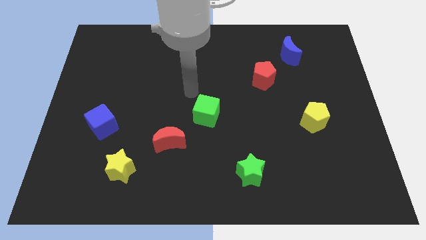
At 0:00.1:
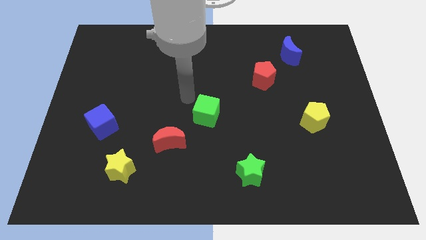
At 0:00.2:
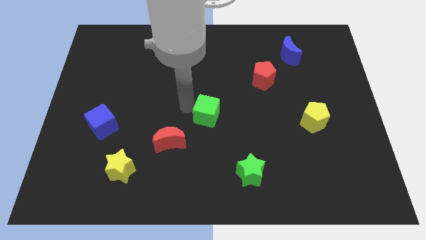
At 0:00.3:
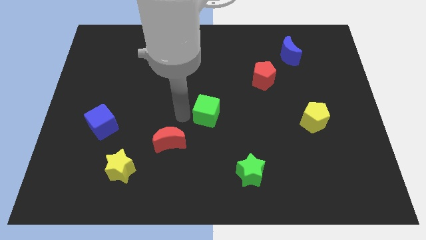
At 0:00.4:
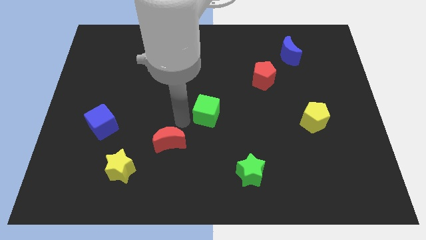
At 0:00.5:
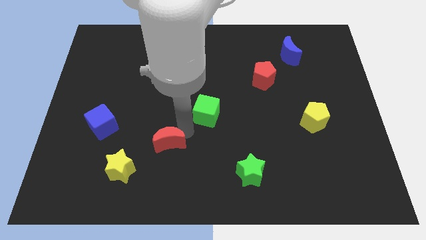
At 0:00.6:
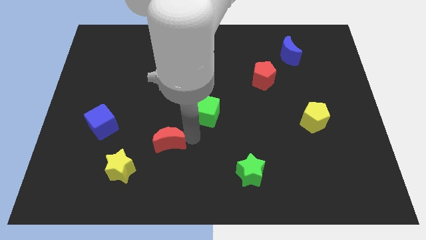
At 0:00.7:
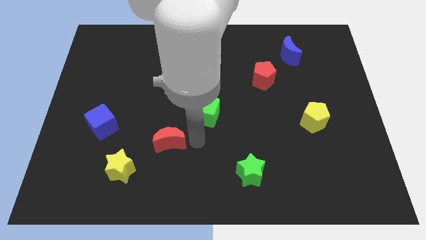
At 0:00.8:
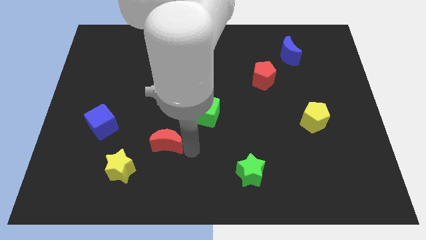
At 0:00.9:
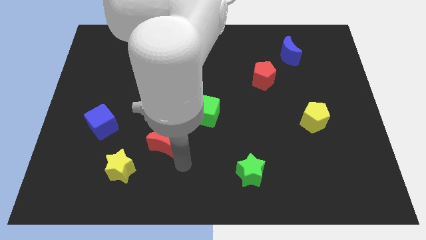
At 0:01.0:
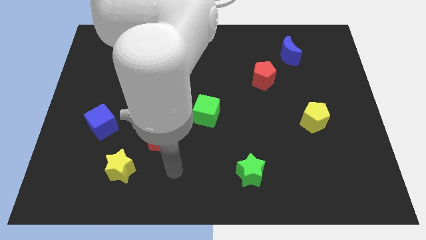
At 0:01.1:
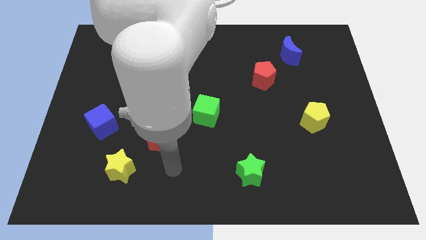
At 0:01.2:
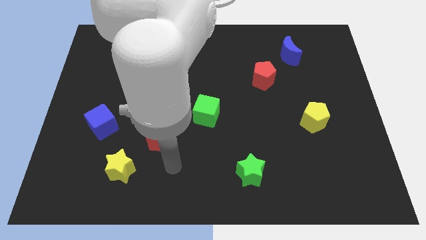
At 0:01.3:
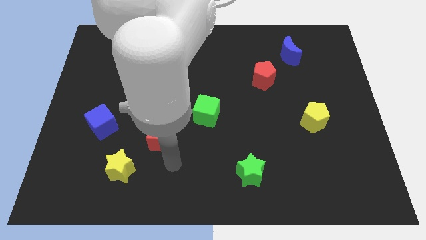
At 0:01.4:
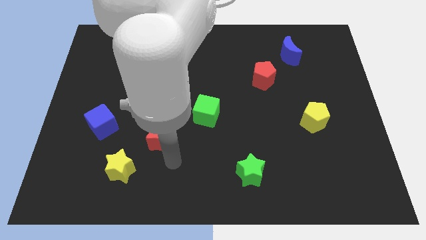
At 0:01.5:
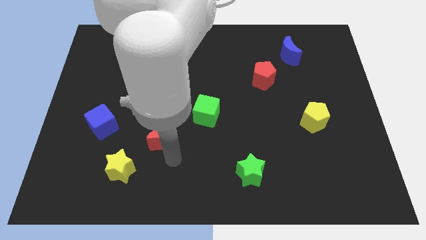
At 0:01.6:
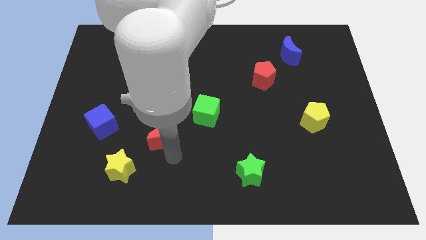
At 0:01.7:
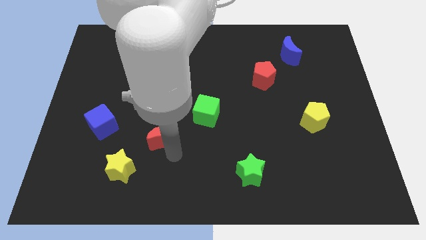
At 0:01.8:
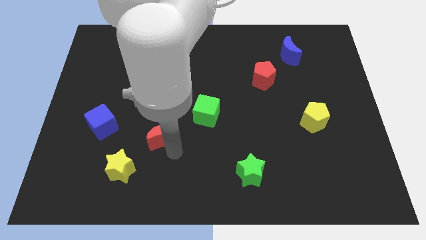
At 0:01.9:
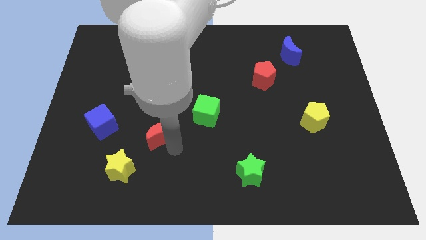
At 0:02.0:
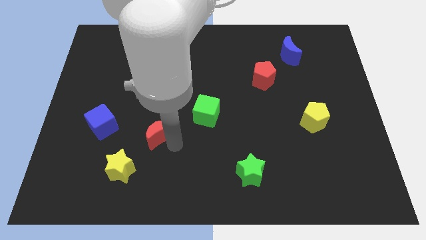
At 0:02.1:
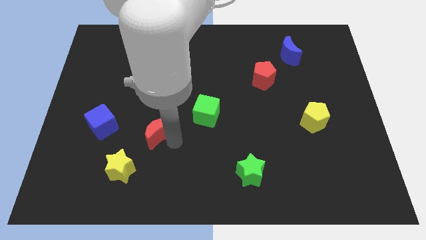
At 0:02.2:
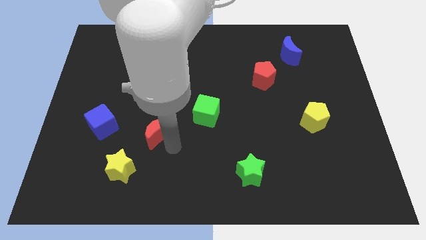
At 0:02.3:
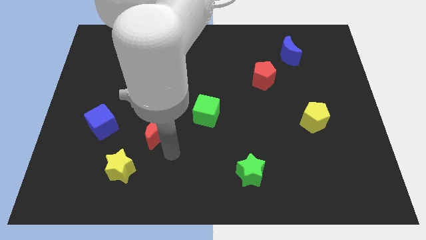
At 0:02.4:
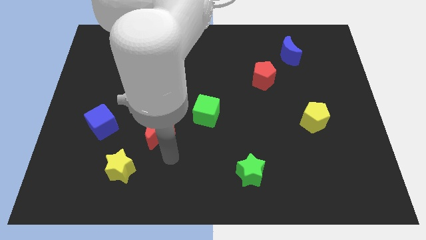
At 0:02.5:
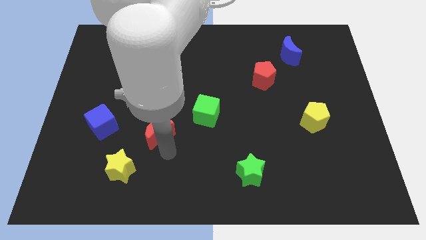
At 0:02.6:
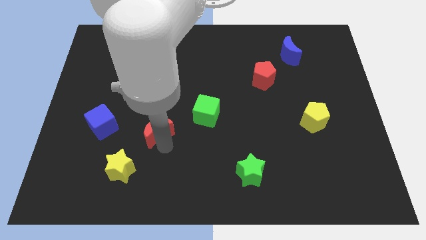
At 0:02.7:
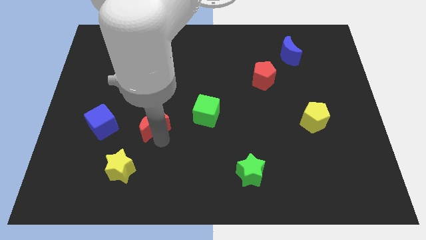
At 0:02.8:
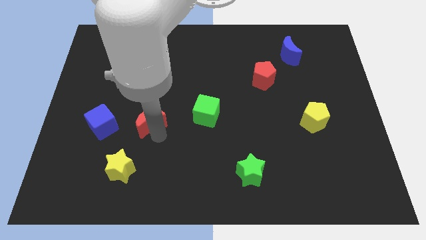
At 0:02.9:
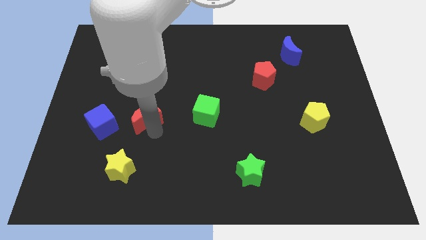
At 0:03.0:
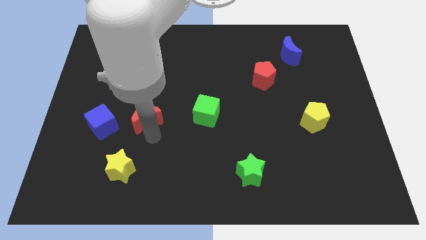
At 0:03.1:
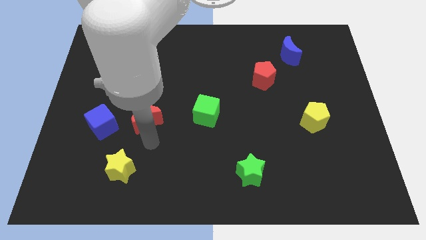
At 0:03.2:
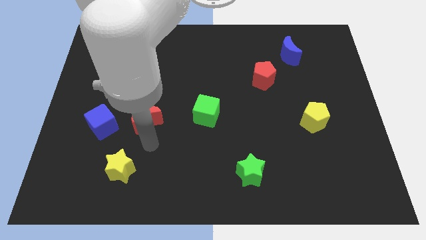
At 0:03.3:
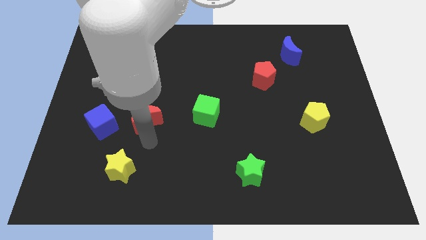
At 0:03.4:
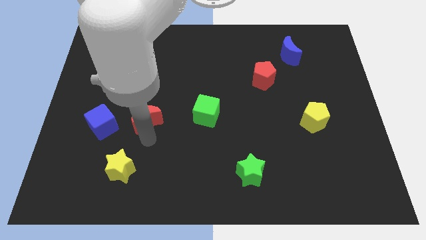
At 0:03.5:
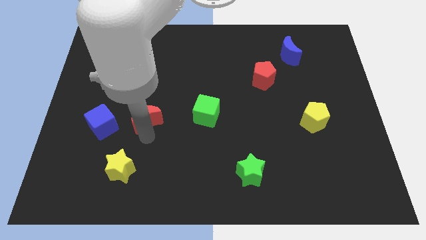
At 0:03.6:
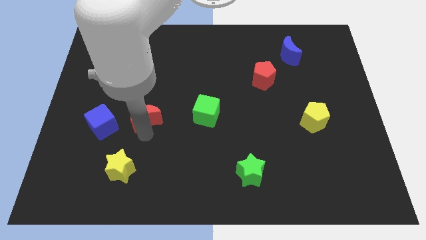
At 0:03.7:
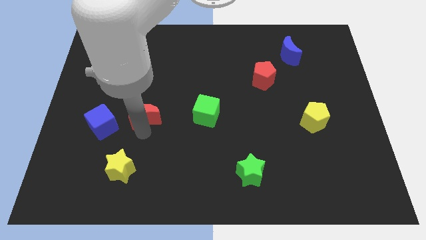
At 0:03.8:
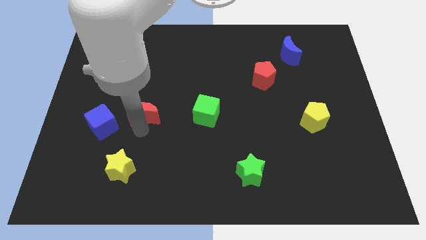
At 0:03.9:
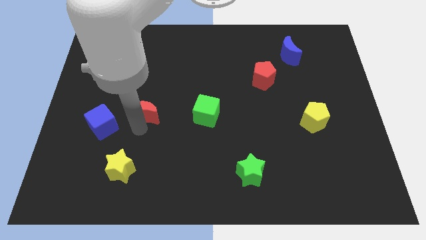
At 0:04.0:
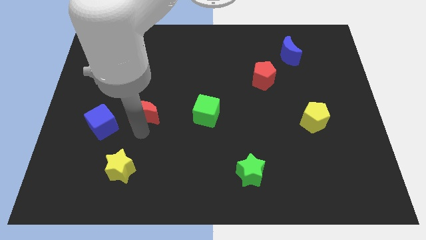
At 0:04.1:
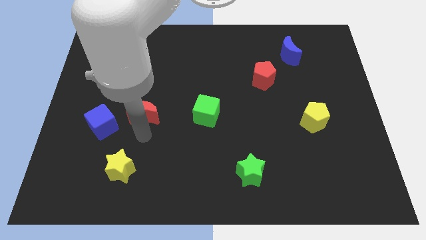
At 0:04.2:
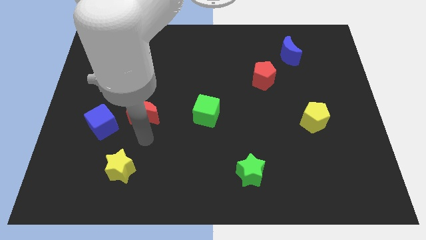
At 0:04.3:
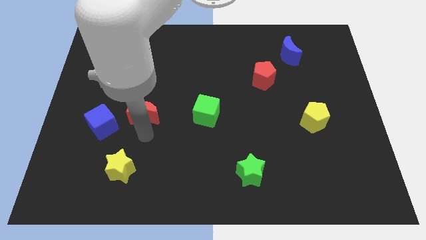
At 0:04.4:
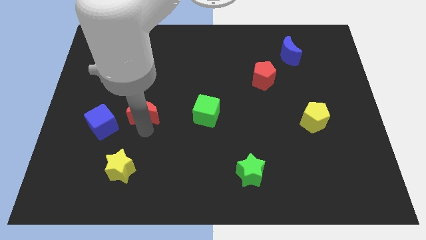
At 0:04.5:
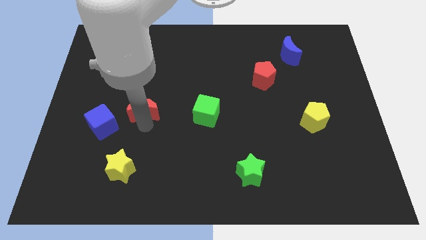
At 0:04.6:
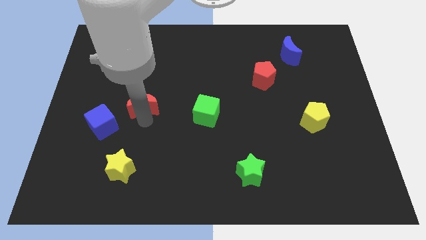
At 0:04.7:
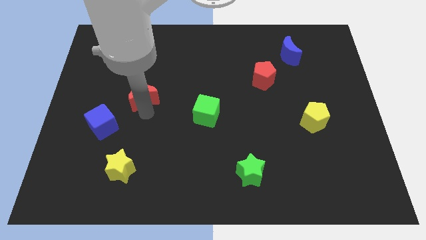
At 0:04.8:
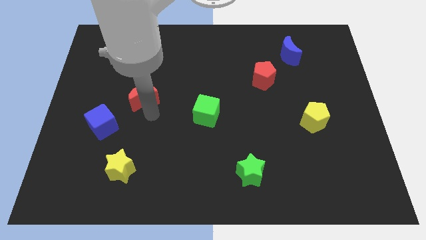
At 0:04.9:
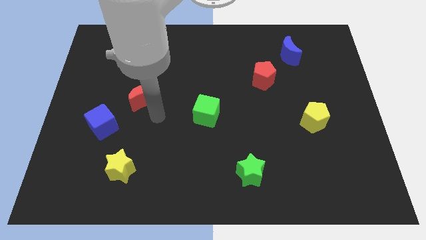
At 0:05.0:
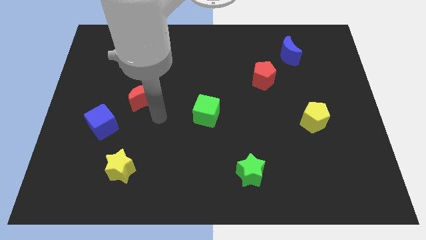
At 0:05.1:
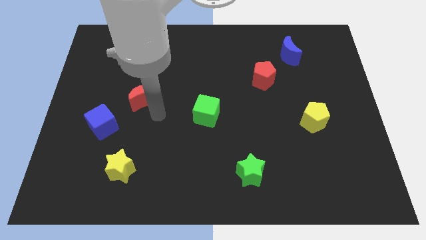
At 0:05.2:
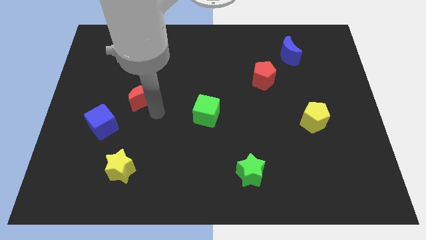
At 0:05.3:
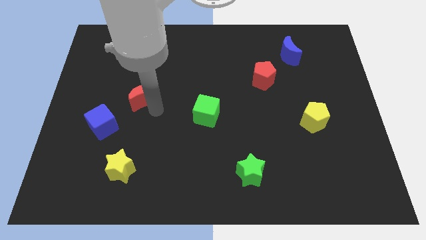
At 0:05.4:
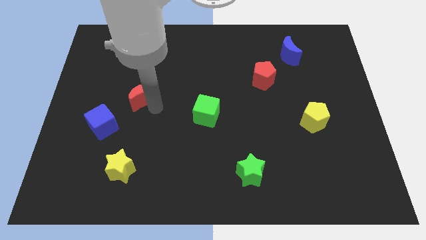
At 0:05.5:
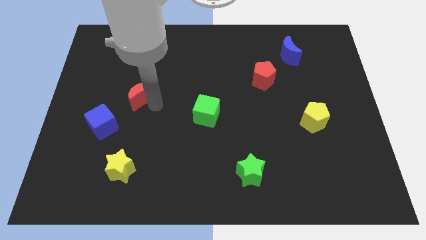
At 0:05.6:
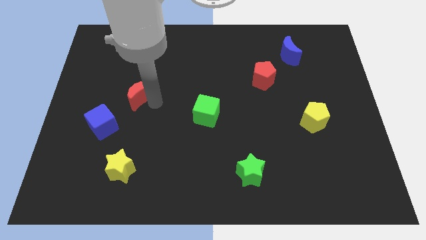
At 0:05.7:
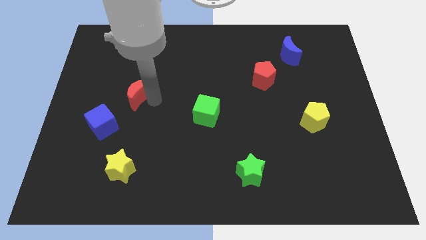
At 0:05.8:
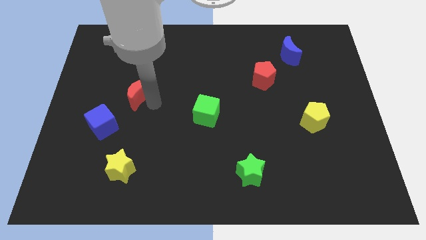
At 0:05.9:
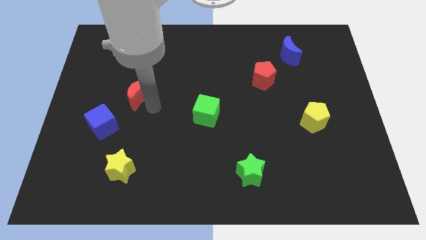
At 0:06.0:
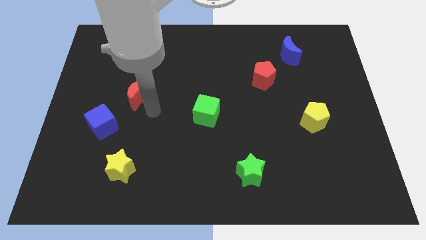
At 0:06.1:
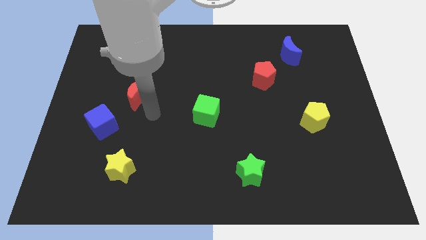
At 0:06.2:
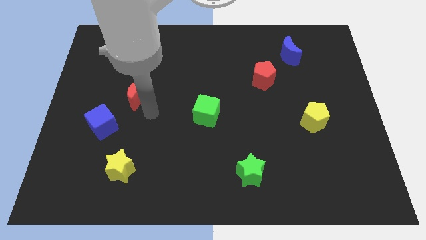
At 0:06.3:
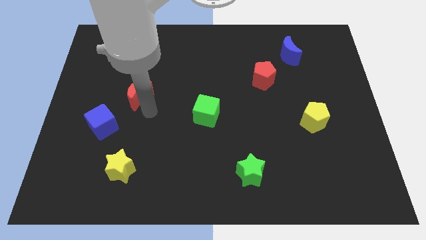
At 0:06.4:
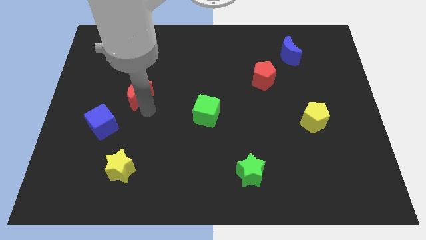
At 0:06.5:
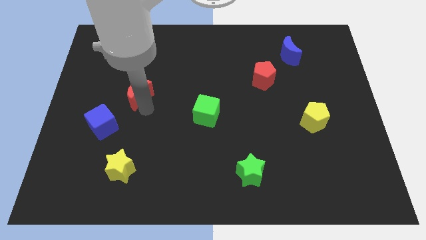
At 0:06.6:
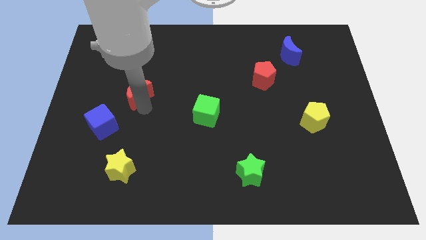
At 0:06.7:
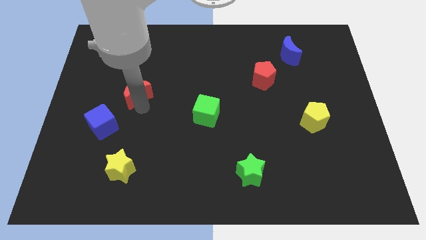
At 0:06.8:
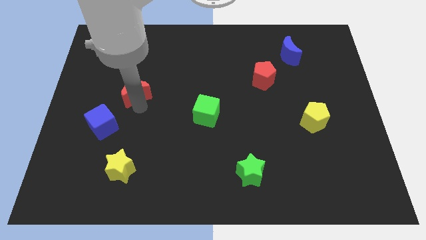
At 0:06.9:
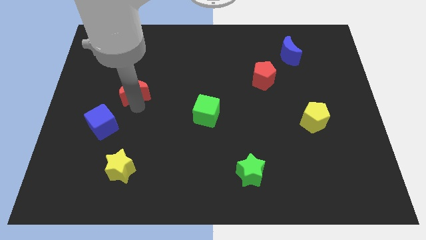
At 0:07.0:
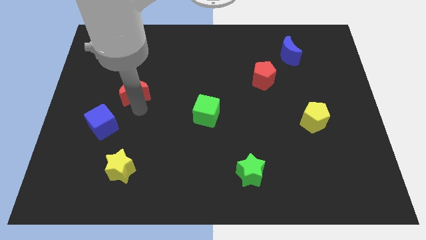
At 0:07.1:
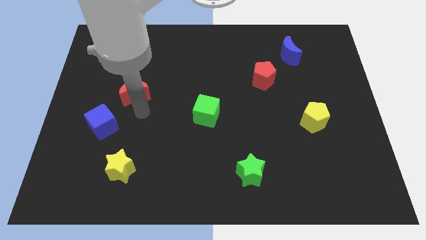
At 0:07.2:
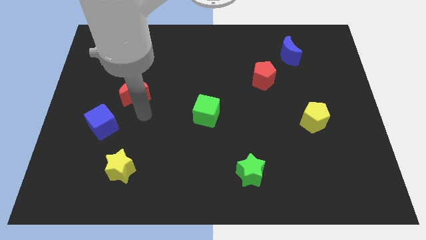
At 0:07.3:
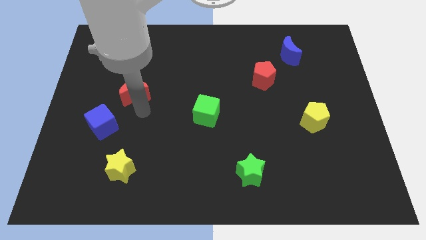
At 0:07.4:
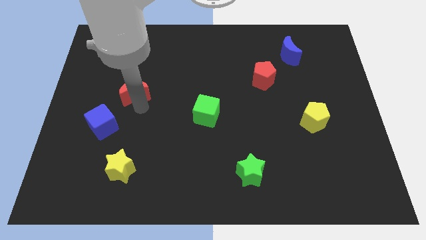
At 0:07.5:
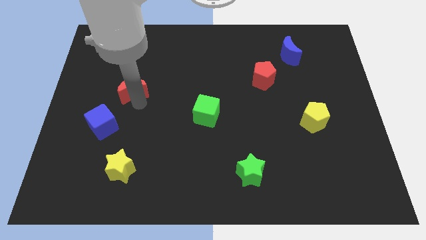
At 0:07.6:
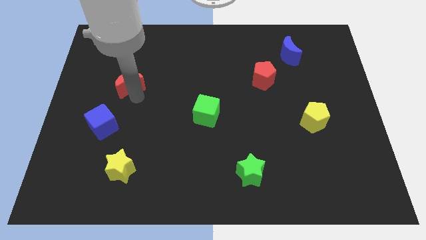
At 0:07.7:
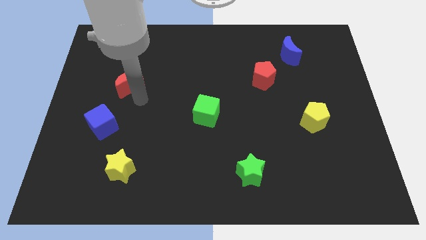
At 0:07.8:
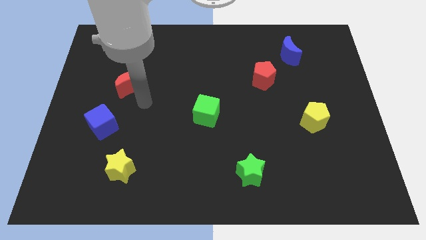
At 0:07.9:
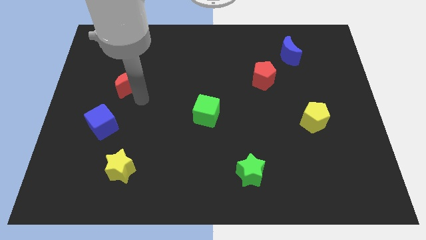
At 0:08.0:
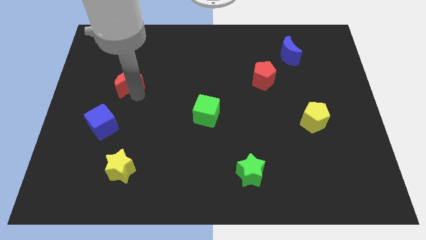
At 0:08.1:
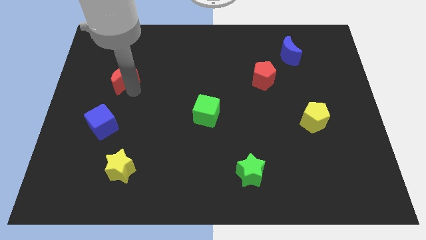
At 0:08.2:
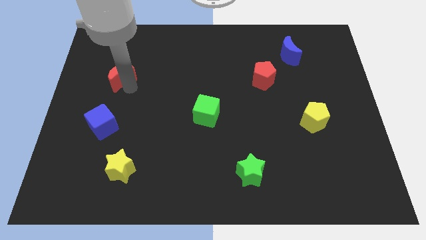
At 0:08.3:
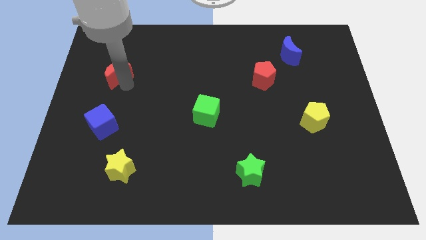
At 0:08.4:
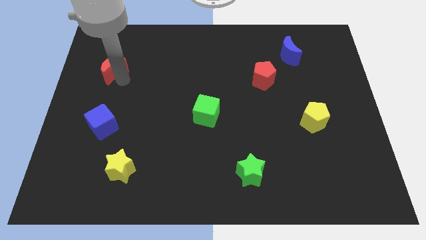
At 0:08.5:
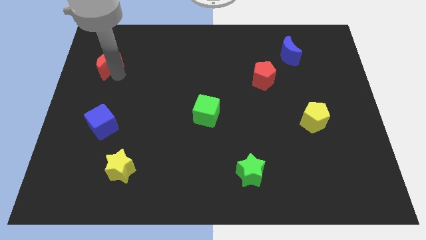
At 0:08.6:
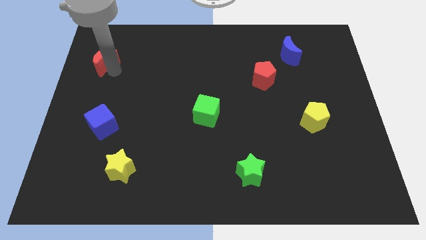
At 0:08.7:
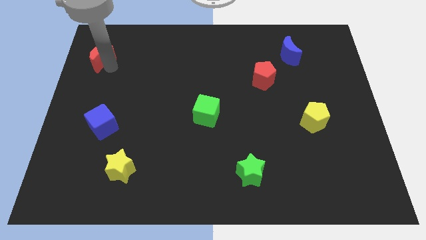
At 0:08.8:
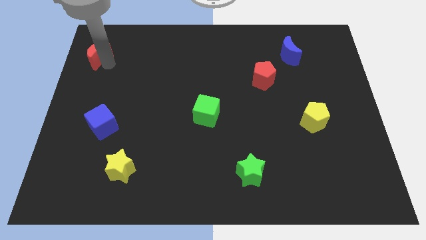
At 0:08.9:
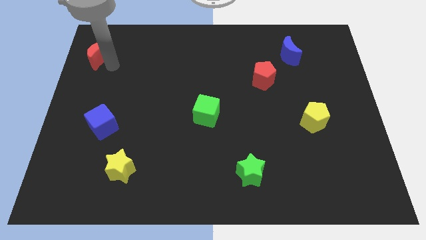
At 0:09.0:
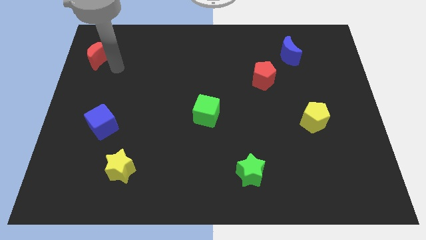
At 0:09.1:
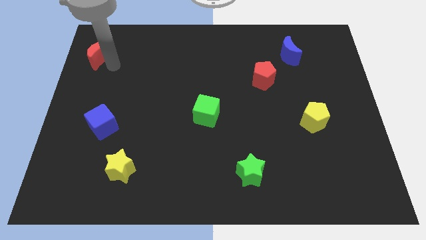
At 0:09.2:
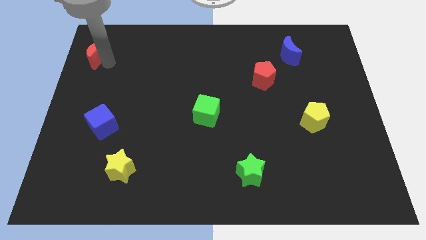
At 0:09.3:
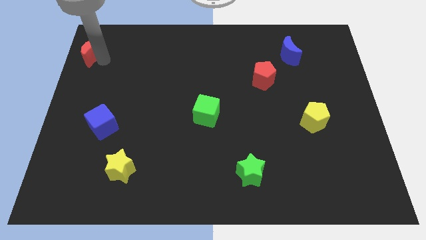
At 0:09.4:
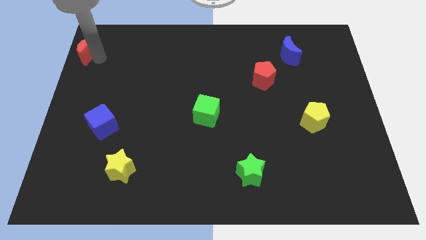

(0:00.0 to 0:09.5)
move the red moon to the upper left corner
